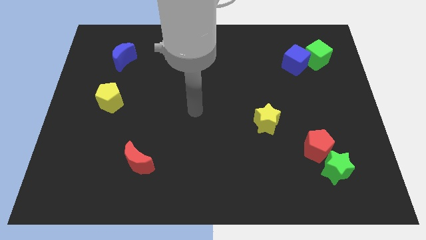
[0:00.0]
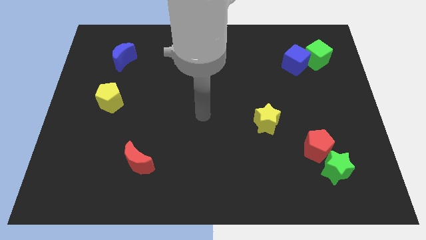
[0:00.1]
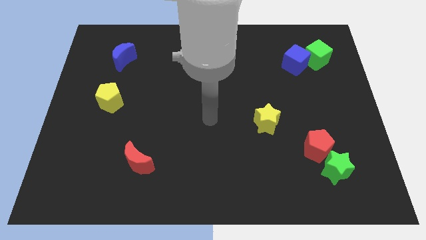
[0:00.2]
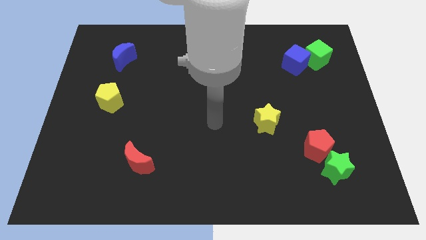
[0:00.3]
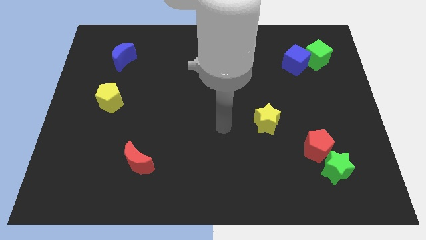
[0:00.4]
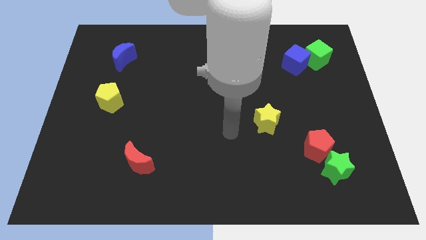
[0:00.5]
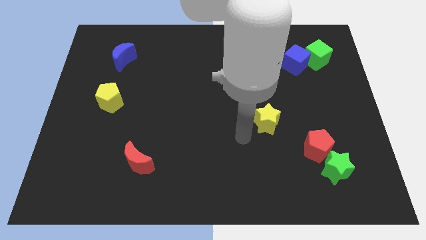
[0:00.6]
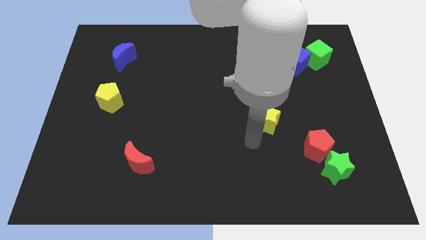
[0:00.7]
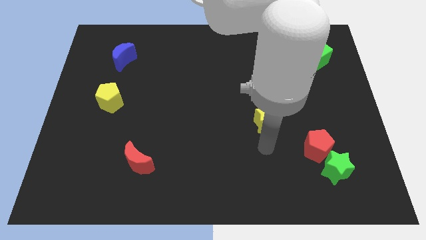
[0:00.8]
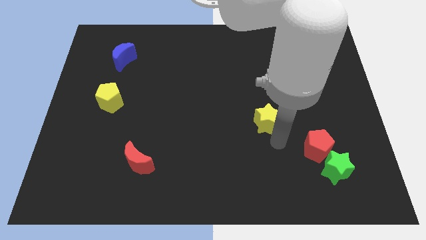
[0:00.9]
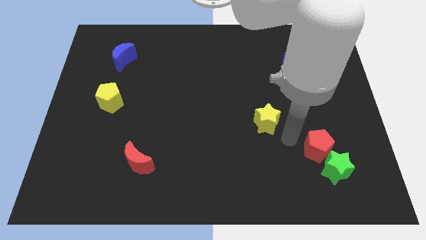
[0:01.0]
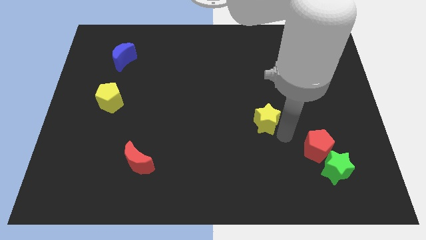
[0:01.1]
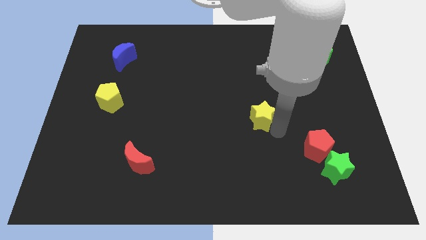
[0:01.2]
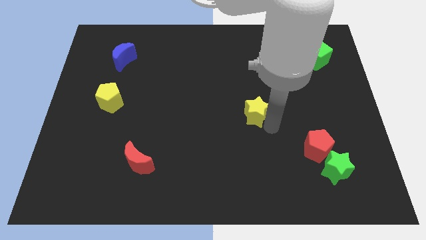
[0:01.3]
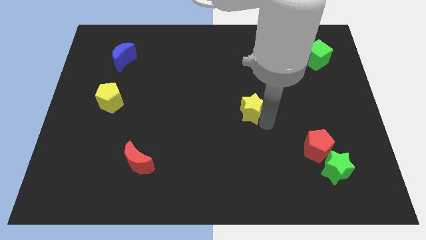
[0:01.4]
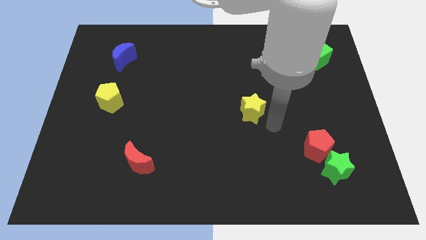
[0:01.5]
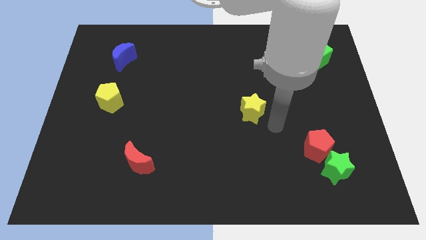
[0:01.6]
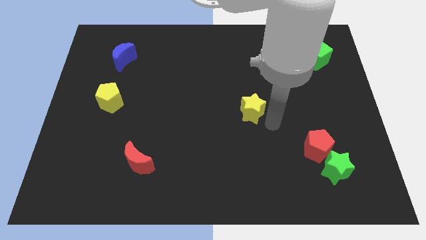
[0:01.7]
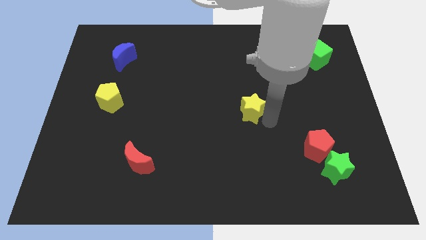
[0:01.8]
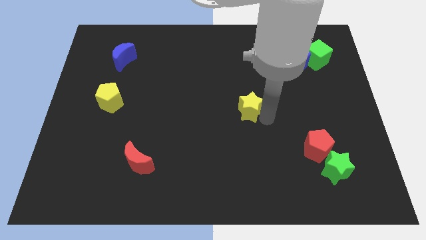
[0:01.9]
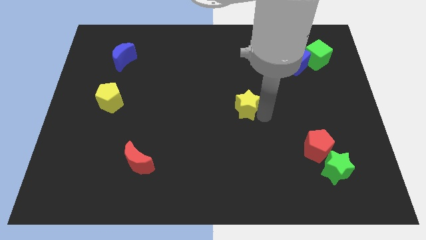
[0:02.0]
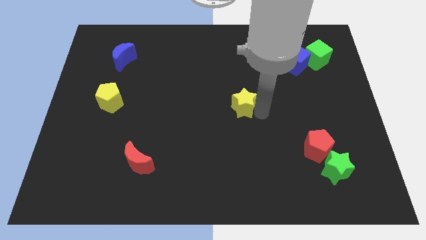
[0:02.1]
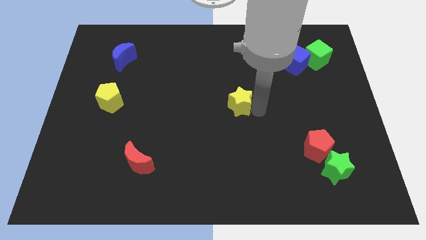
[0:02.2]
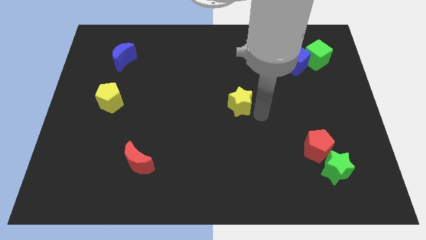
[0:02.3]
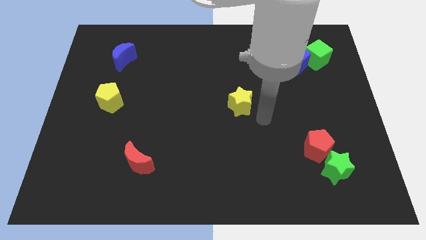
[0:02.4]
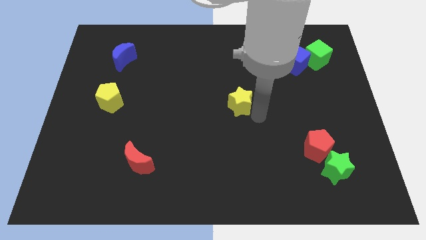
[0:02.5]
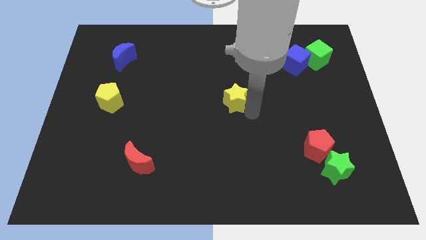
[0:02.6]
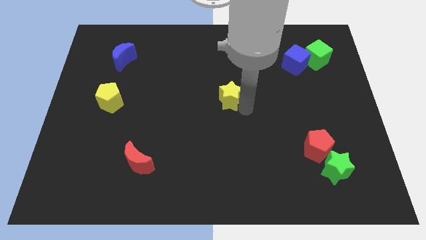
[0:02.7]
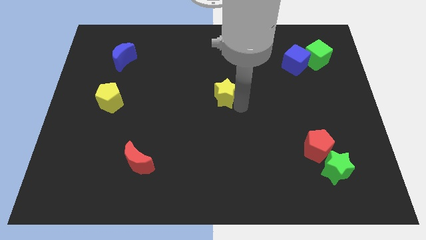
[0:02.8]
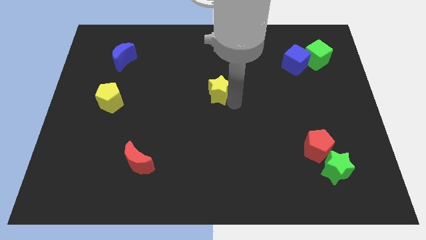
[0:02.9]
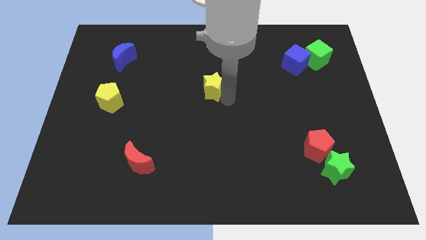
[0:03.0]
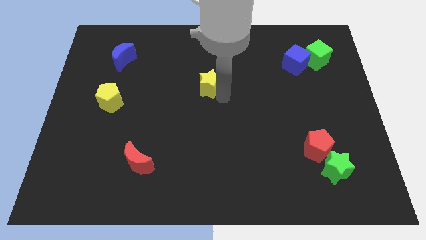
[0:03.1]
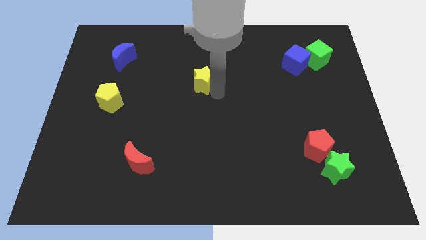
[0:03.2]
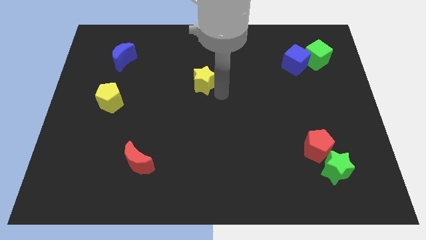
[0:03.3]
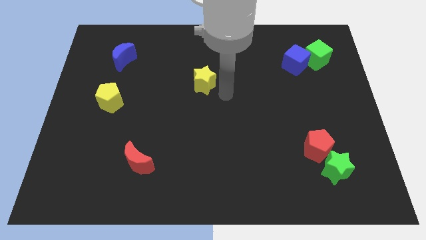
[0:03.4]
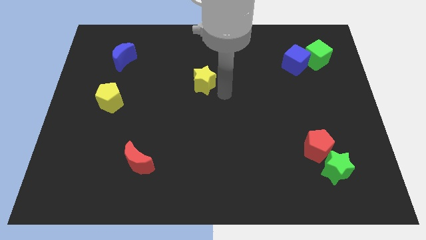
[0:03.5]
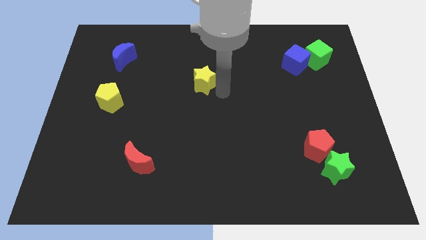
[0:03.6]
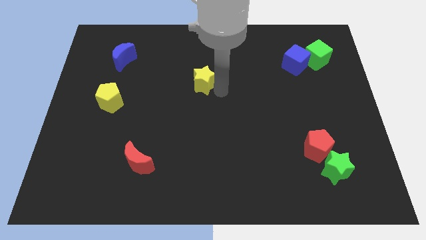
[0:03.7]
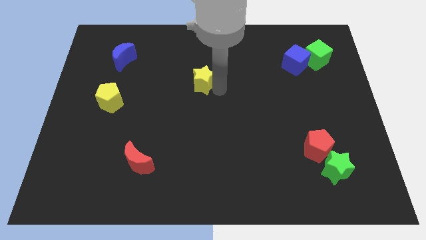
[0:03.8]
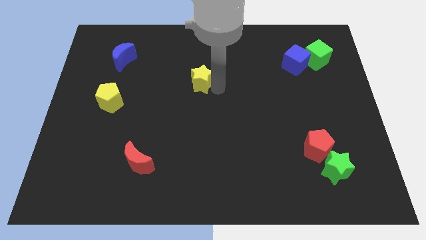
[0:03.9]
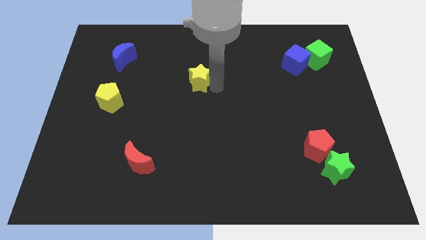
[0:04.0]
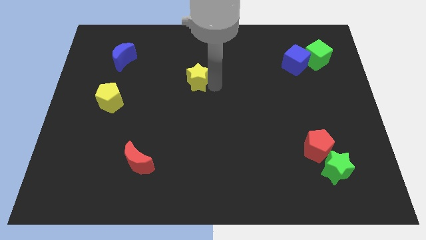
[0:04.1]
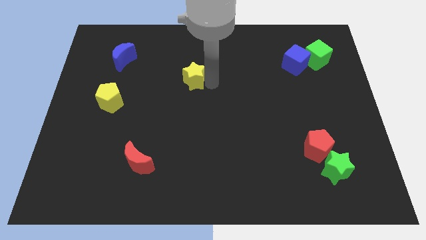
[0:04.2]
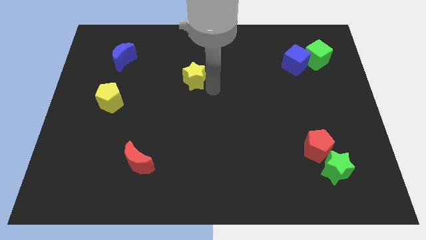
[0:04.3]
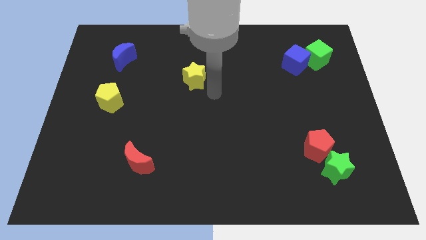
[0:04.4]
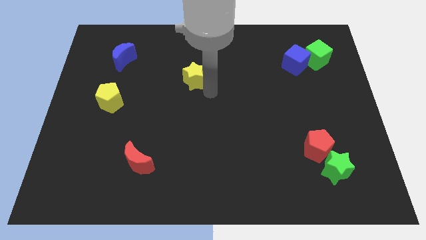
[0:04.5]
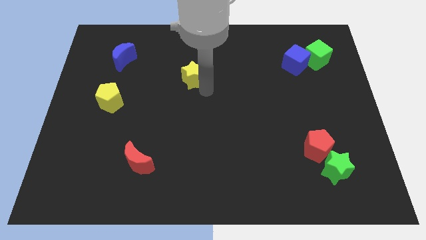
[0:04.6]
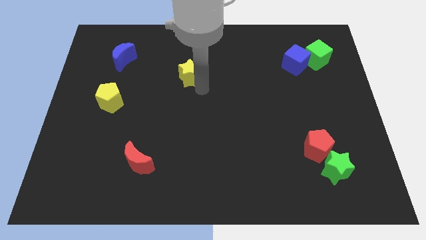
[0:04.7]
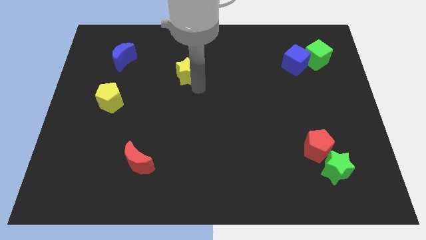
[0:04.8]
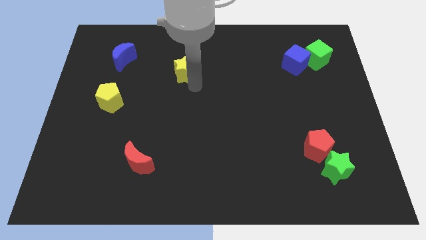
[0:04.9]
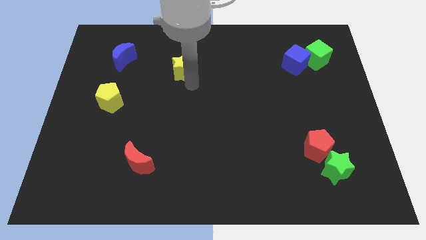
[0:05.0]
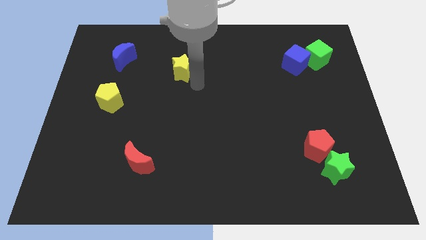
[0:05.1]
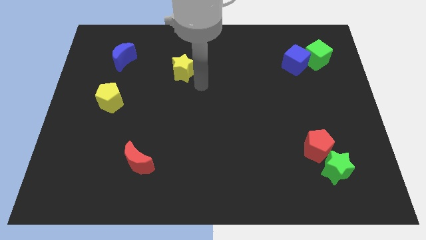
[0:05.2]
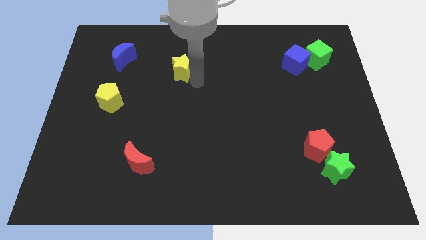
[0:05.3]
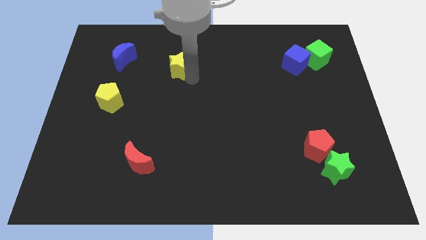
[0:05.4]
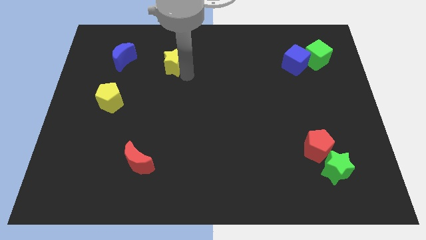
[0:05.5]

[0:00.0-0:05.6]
put the yellow star just right of the blue moon

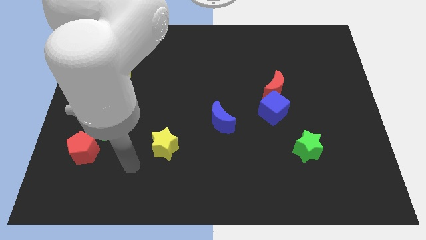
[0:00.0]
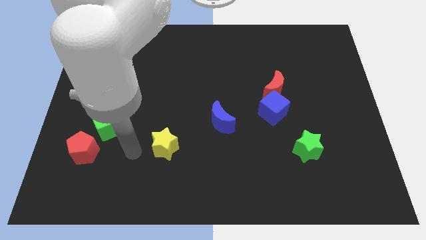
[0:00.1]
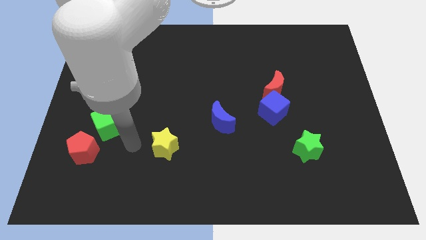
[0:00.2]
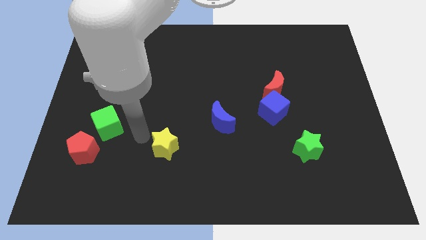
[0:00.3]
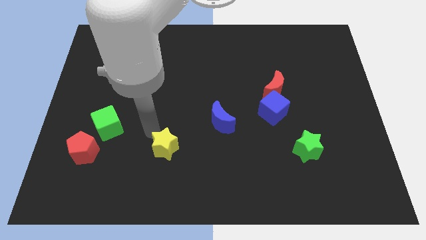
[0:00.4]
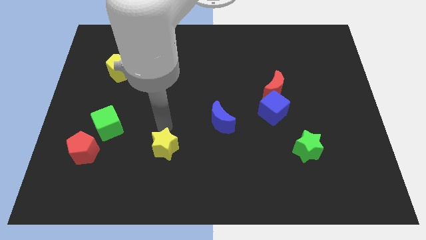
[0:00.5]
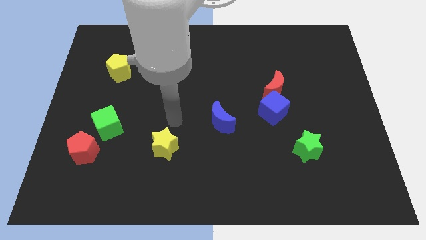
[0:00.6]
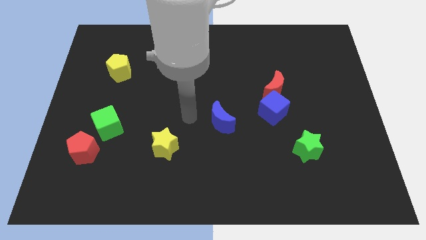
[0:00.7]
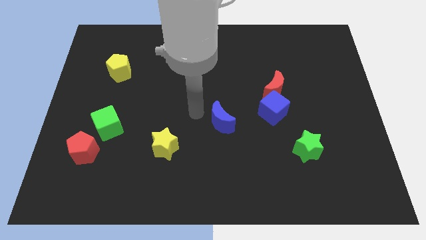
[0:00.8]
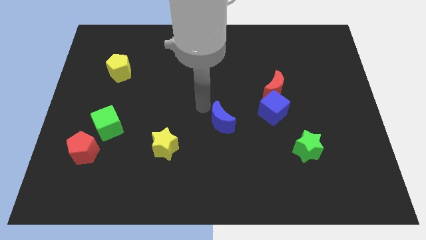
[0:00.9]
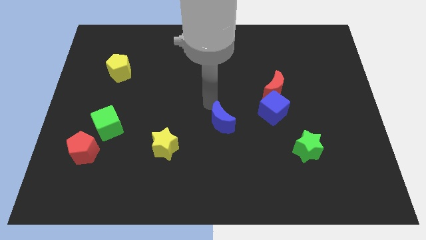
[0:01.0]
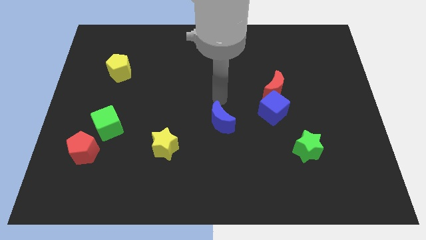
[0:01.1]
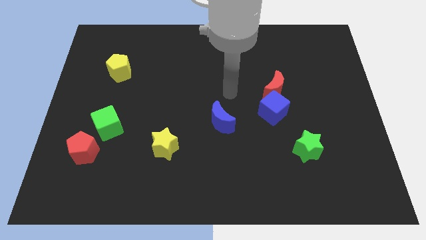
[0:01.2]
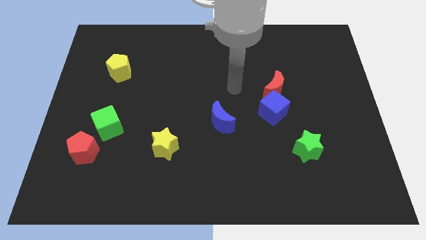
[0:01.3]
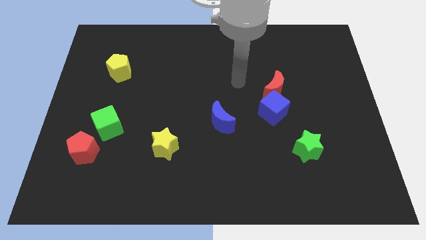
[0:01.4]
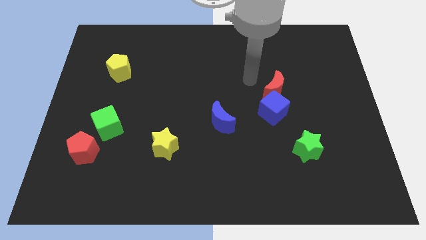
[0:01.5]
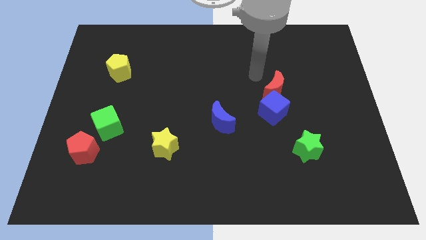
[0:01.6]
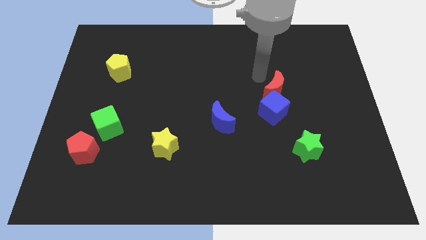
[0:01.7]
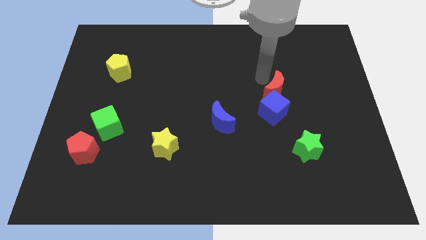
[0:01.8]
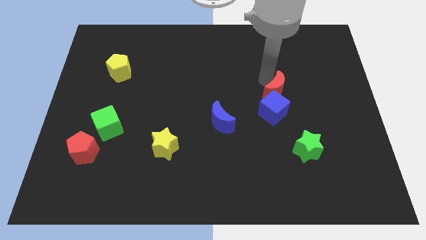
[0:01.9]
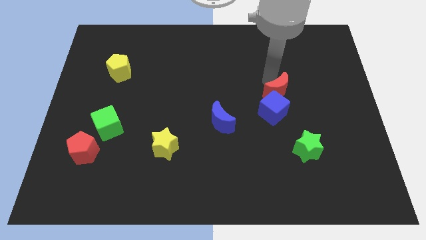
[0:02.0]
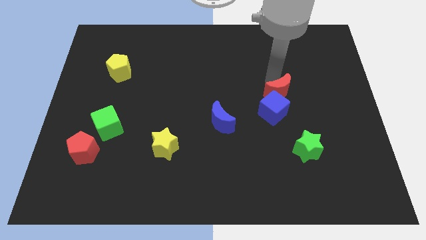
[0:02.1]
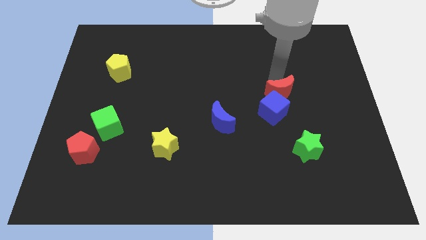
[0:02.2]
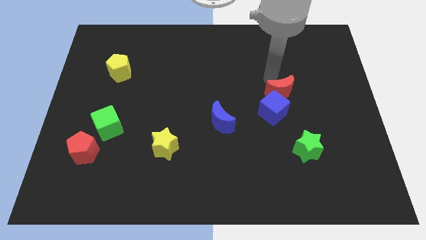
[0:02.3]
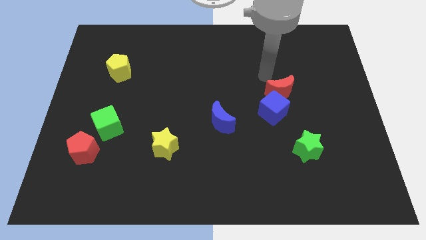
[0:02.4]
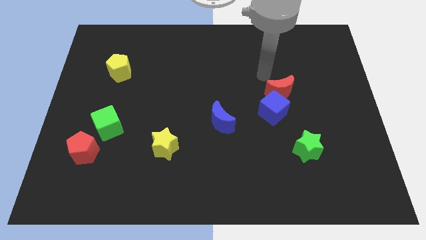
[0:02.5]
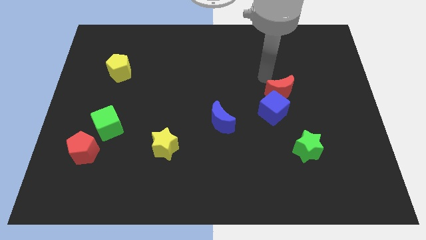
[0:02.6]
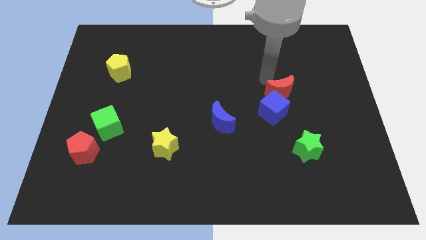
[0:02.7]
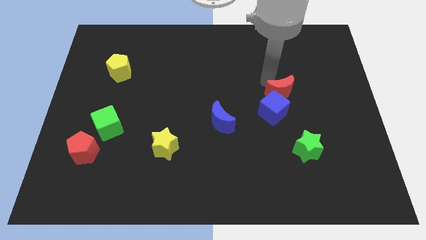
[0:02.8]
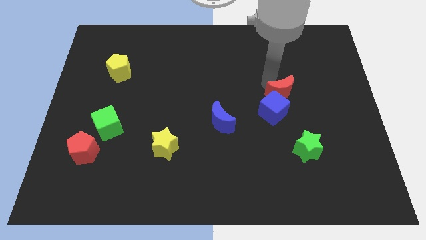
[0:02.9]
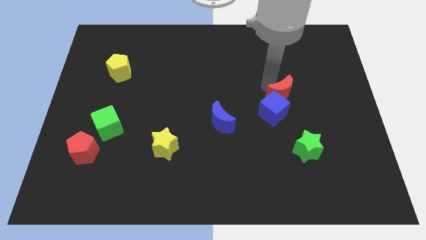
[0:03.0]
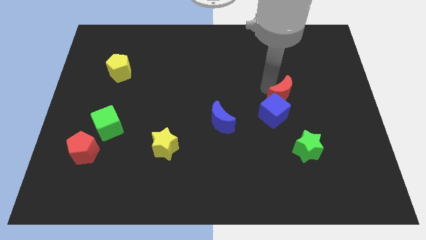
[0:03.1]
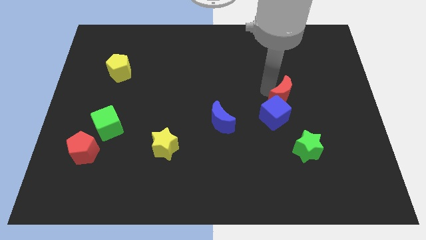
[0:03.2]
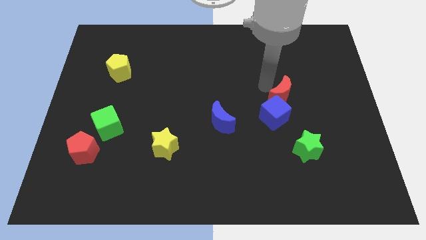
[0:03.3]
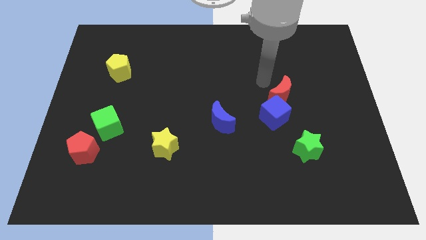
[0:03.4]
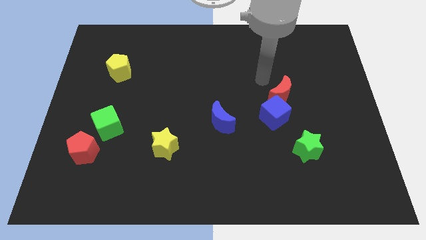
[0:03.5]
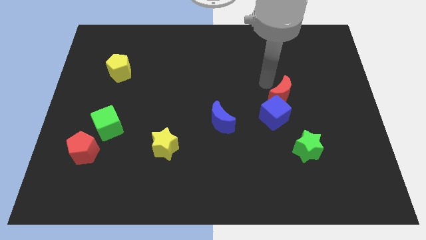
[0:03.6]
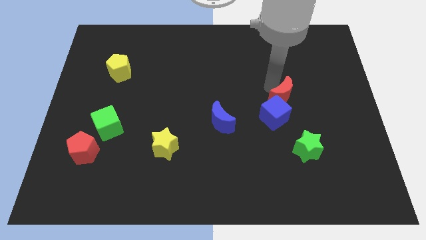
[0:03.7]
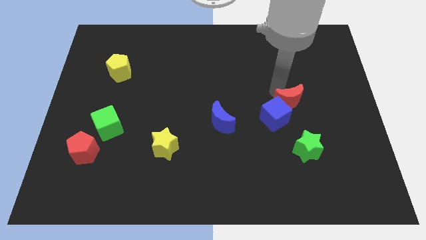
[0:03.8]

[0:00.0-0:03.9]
move the red moon above the green star
